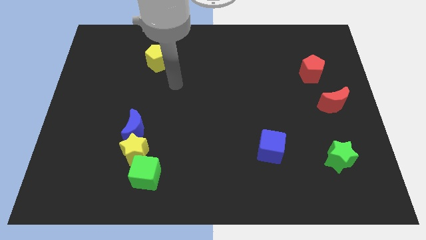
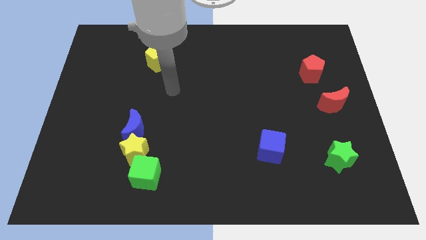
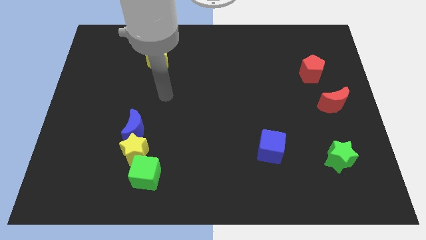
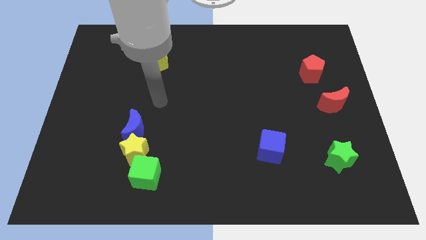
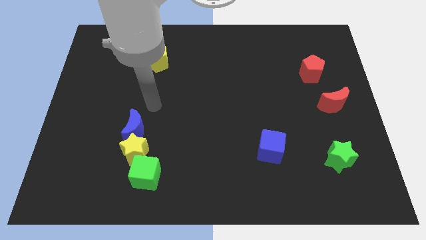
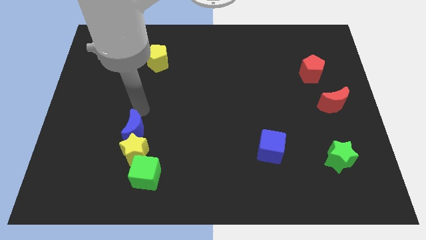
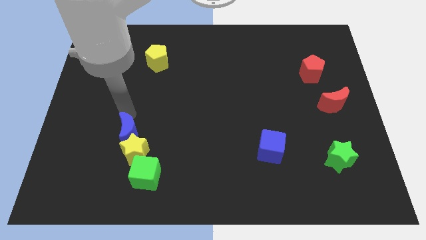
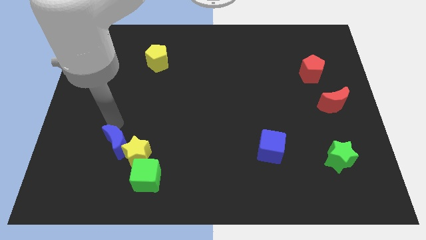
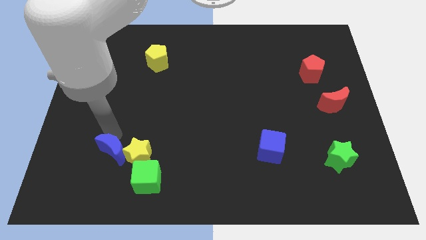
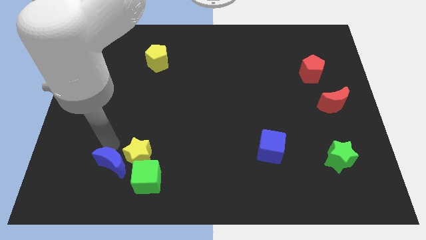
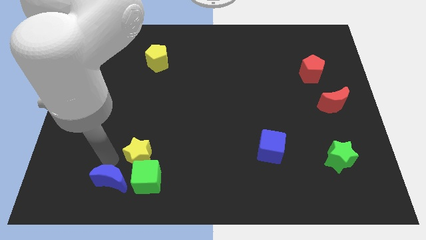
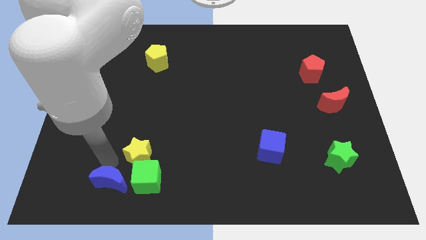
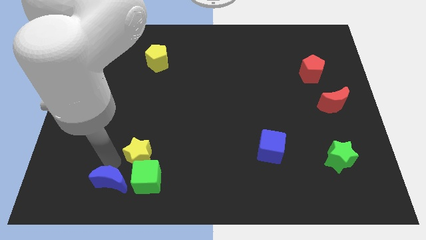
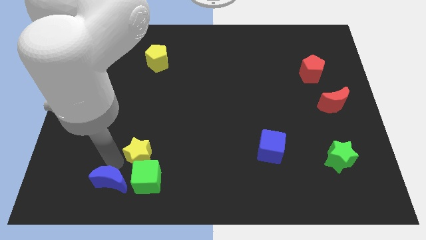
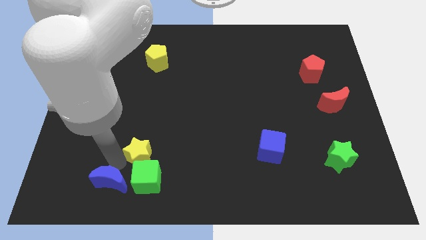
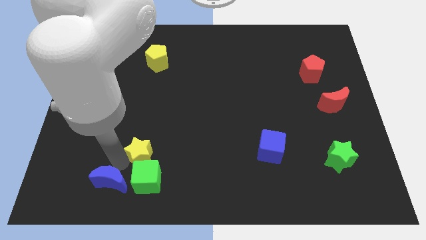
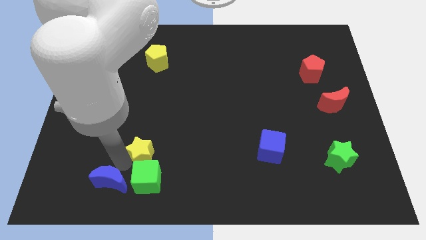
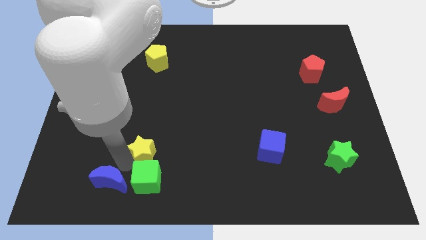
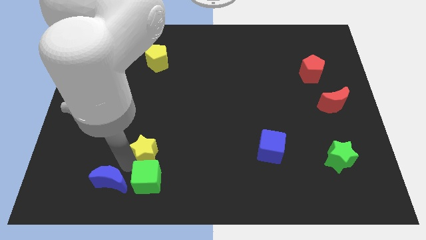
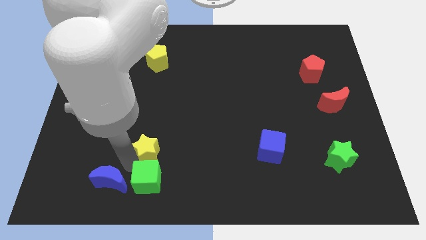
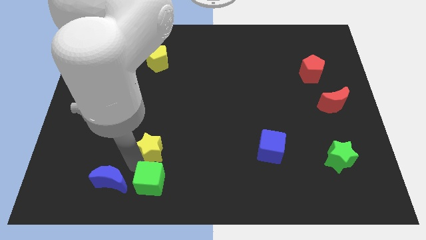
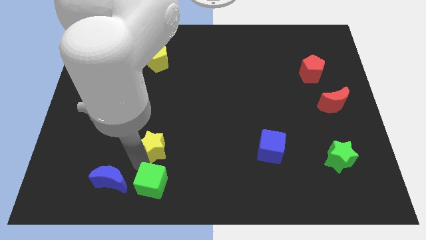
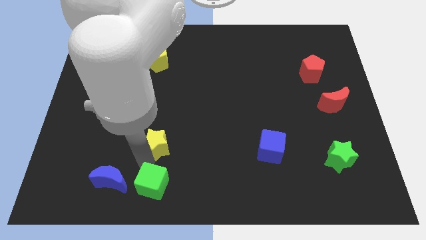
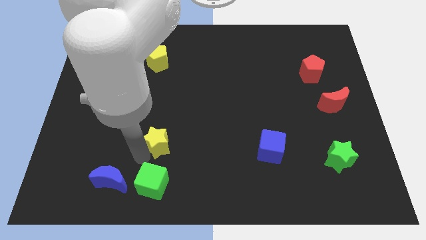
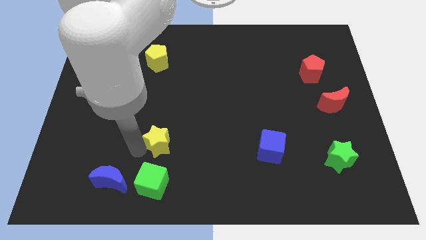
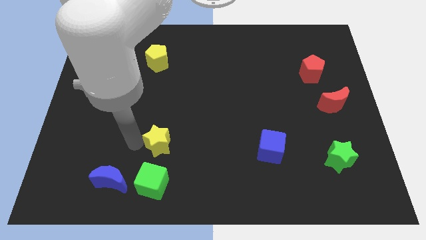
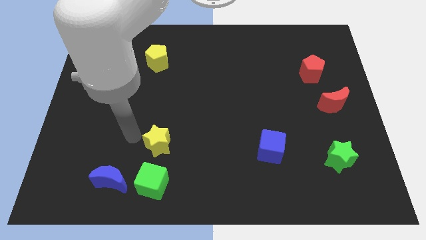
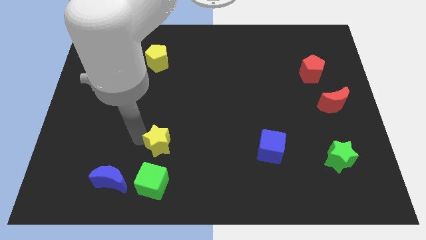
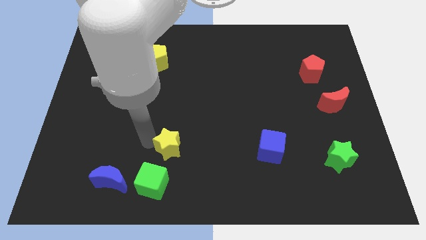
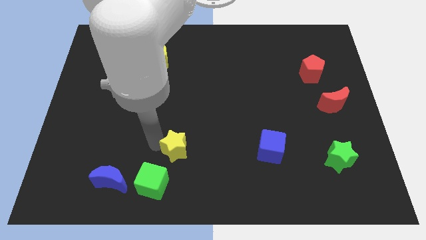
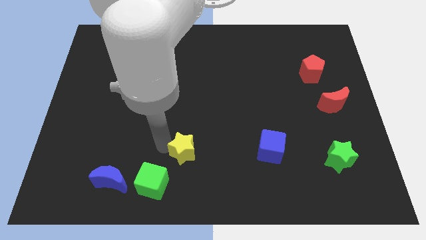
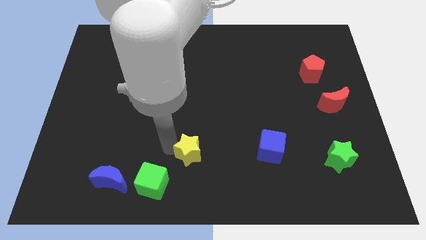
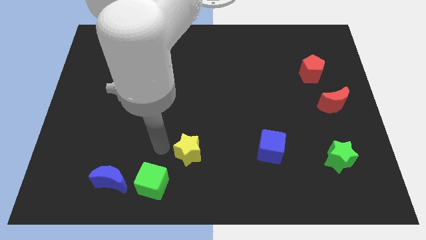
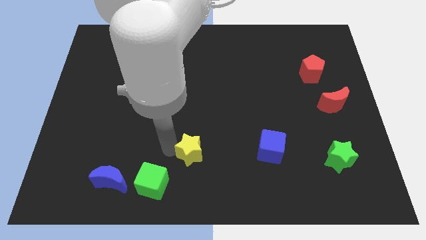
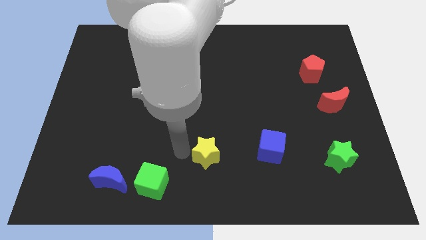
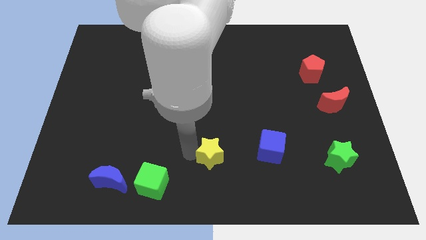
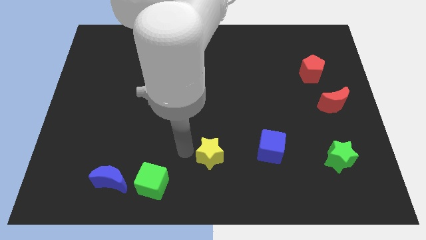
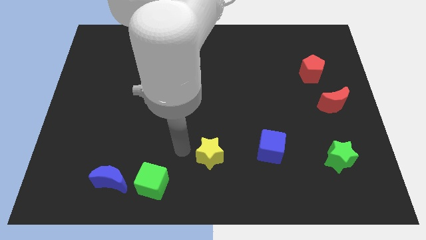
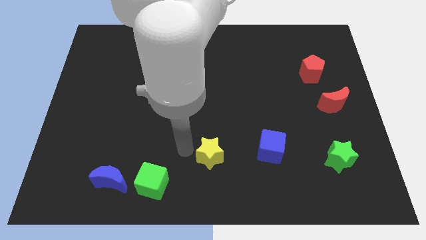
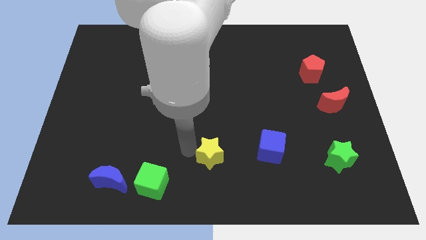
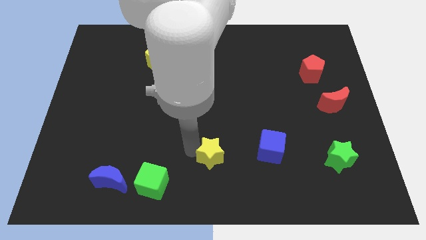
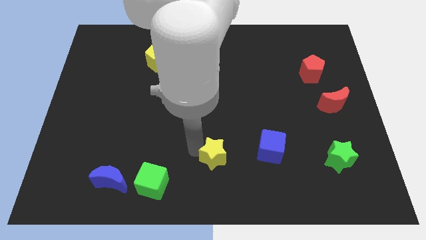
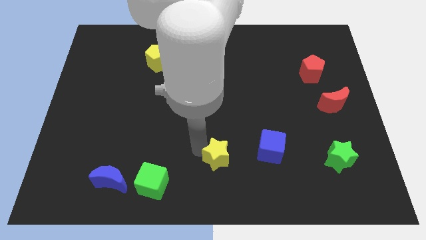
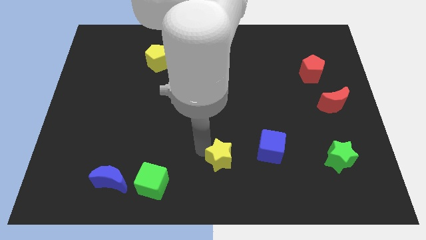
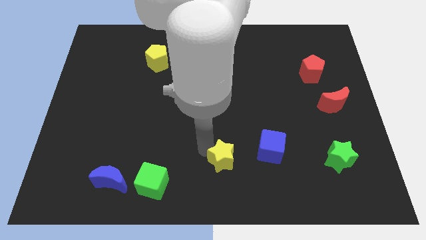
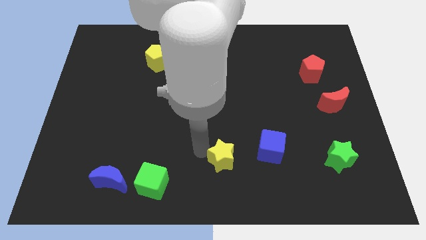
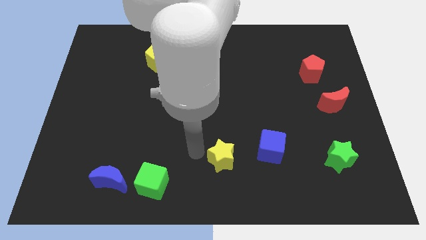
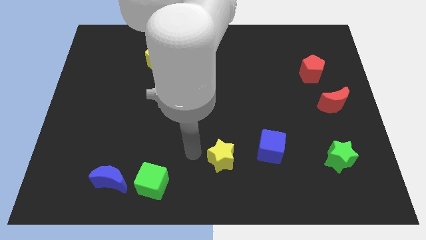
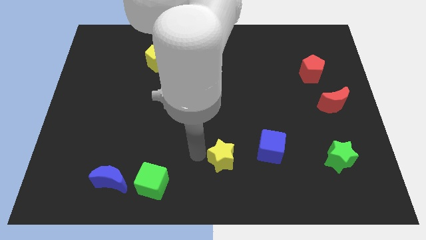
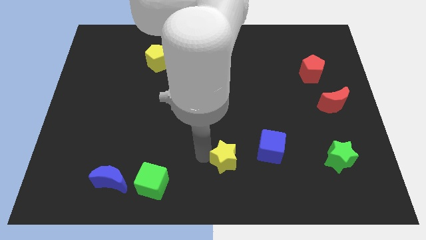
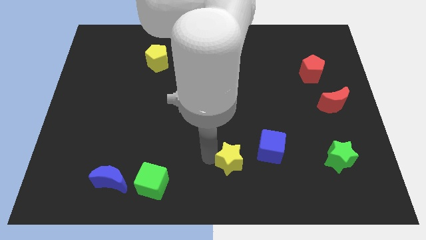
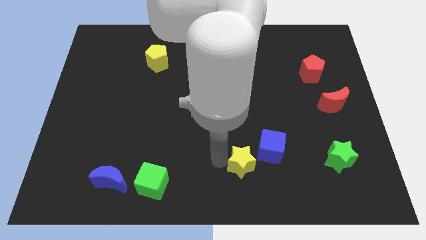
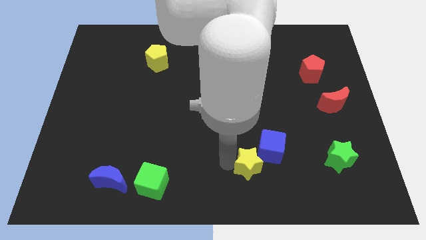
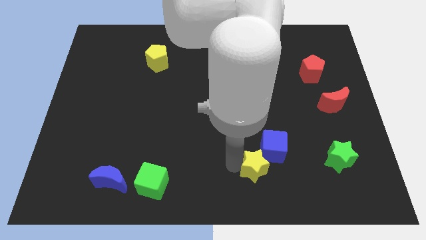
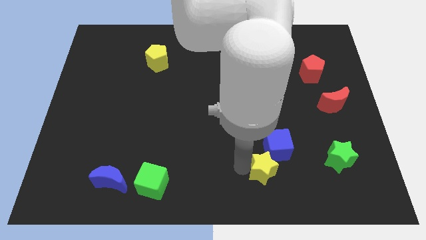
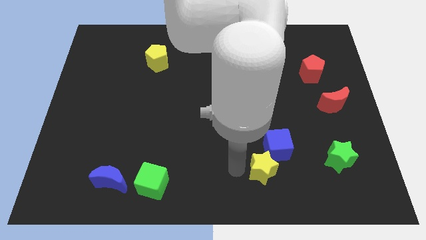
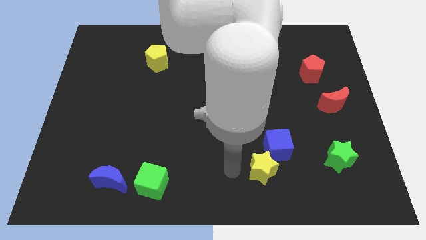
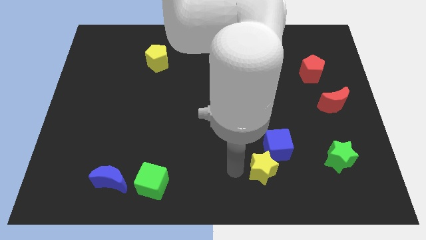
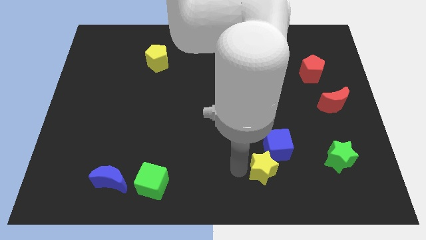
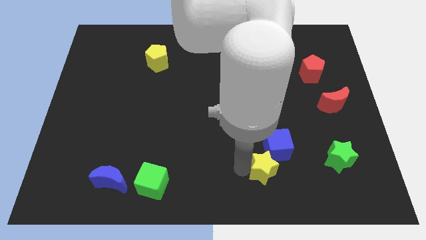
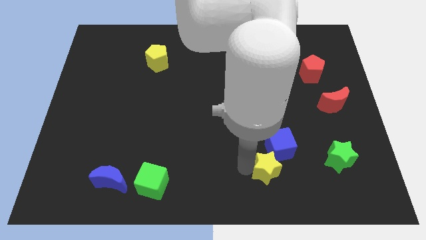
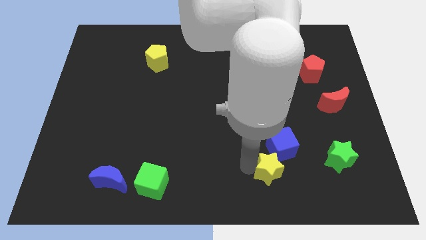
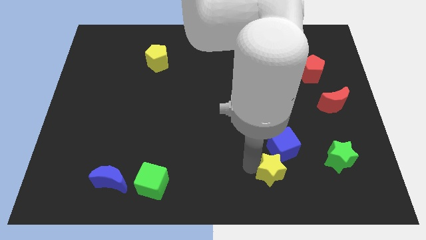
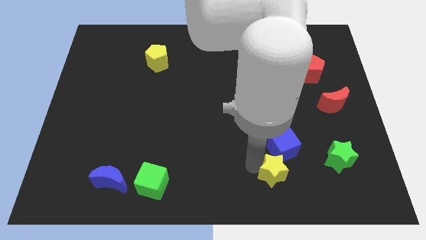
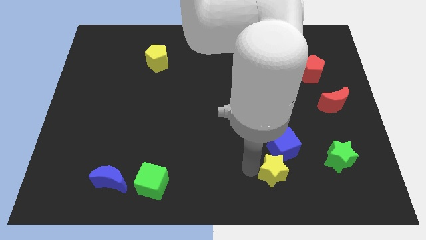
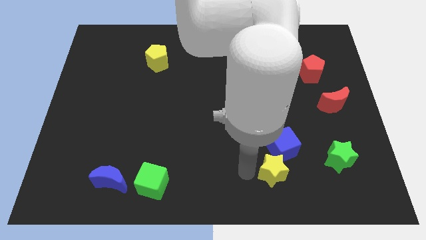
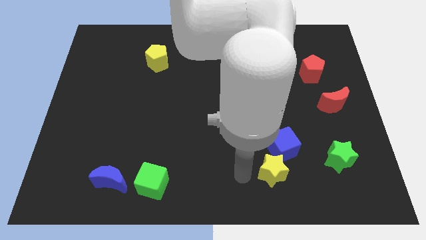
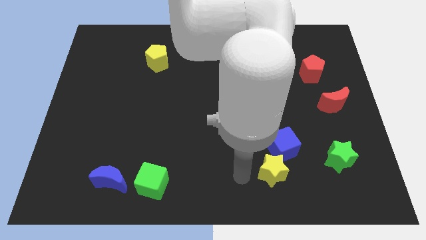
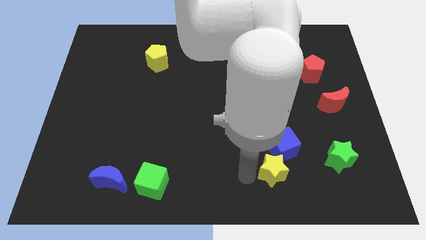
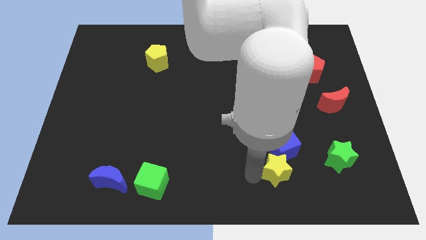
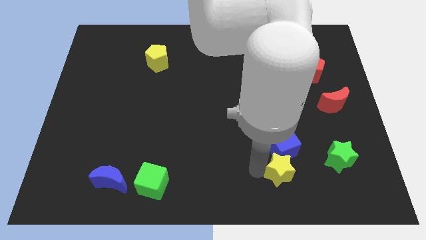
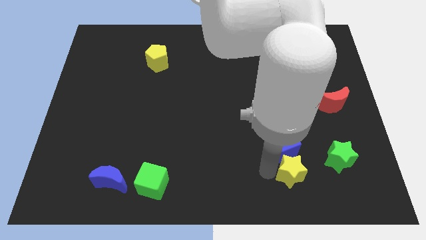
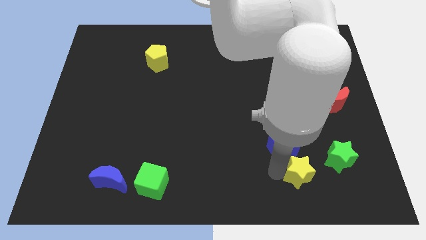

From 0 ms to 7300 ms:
push the yellow star to the bottom left of the green star

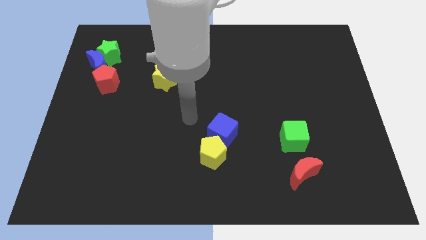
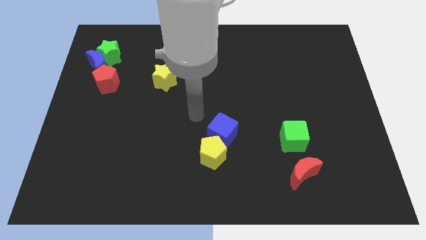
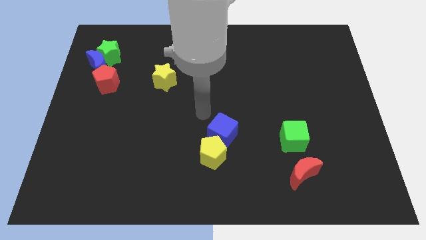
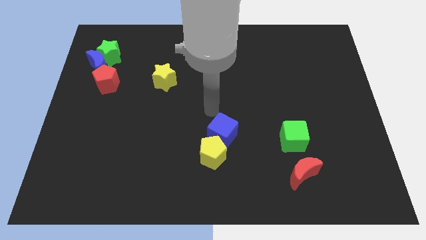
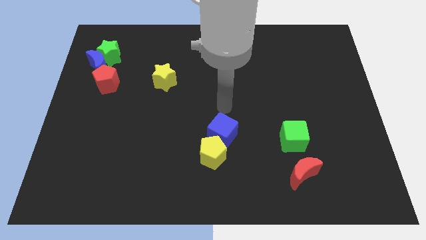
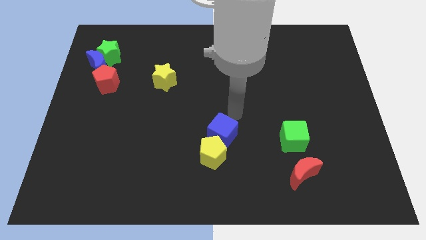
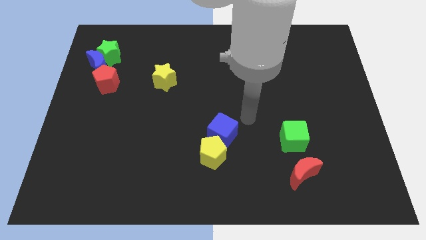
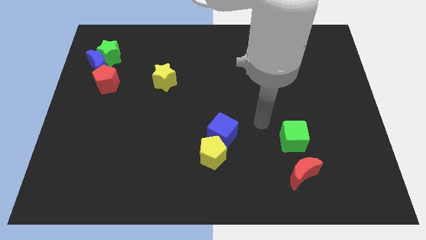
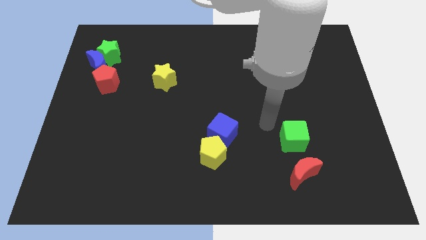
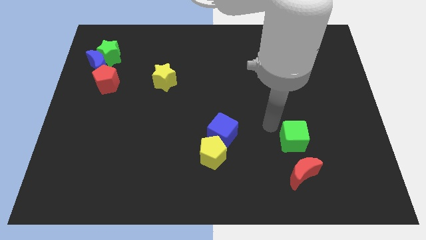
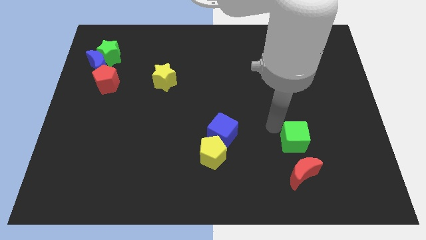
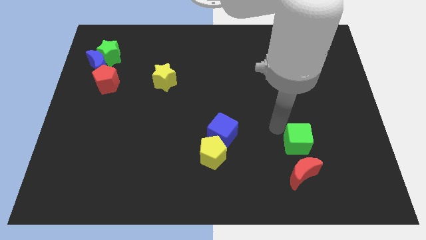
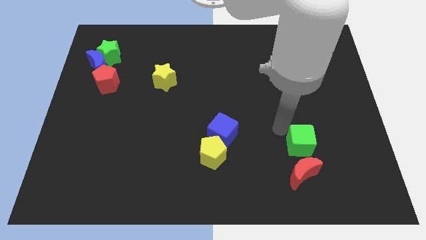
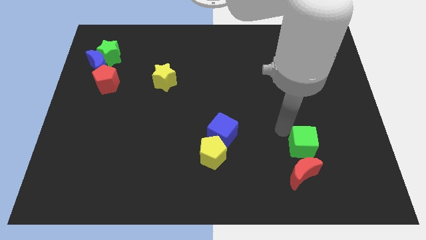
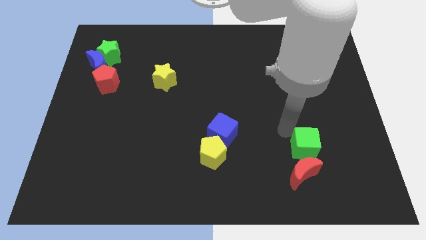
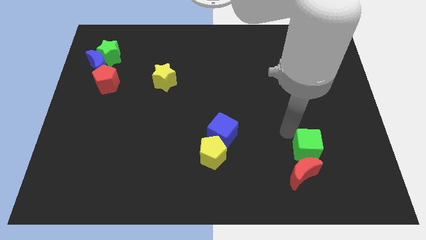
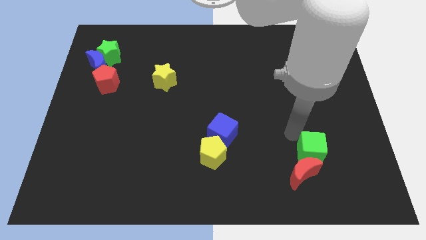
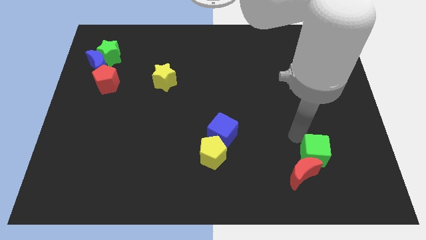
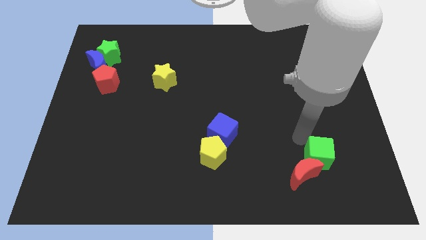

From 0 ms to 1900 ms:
move the green cube to the right of the red moon
